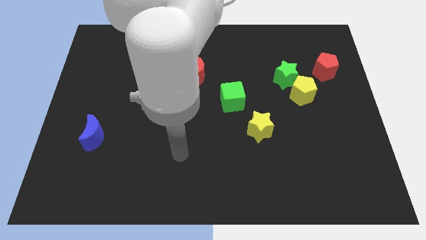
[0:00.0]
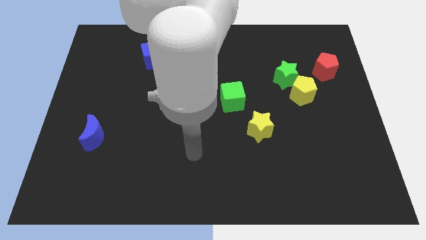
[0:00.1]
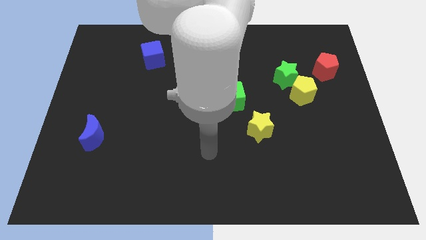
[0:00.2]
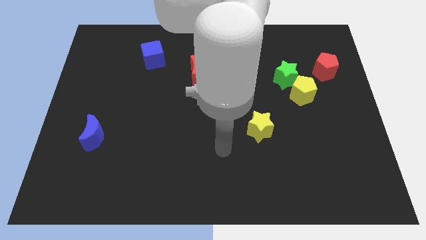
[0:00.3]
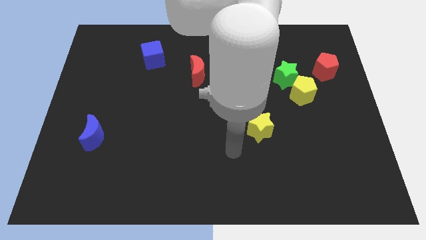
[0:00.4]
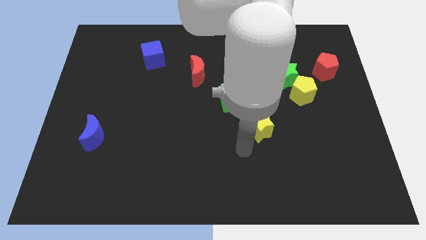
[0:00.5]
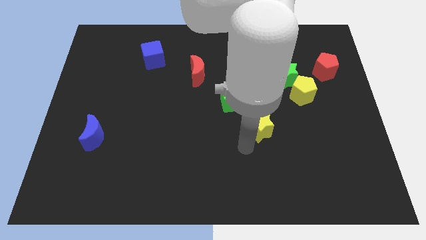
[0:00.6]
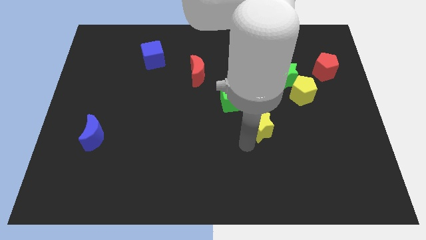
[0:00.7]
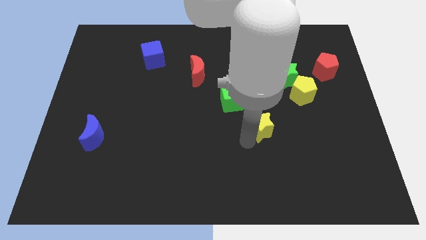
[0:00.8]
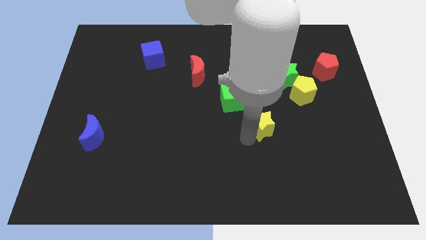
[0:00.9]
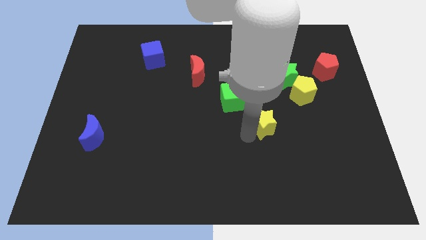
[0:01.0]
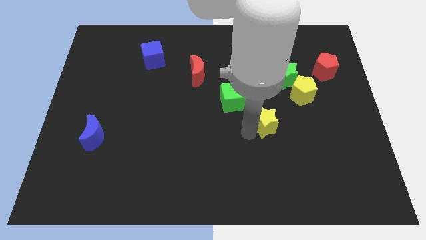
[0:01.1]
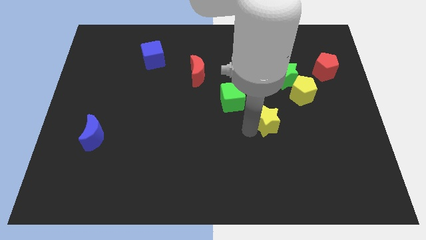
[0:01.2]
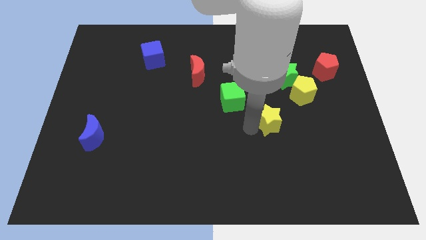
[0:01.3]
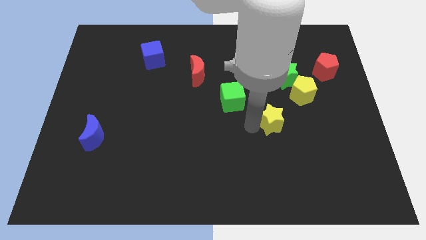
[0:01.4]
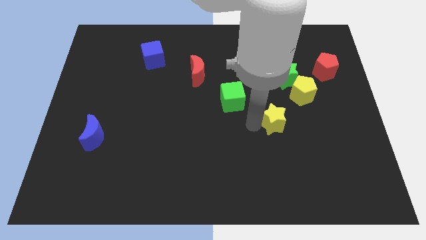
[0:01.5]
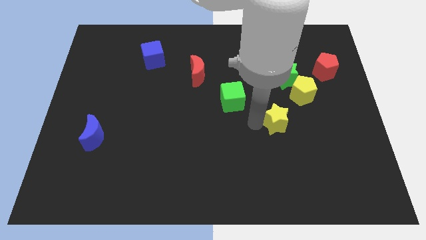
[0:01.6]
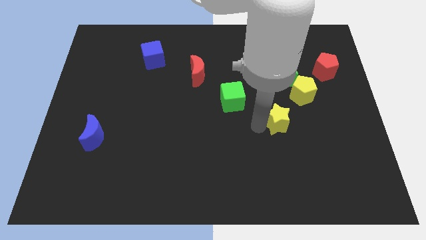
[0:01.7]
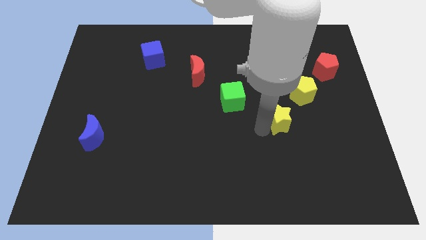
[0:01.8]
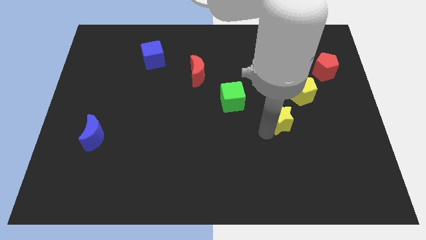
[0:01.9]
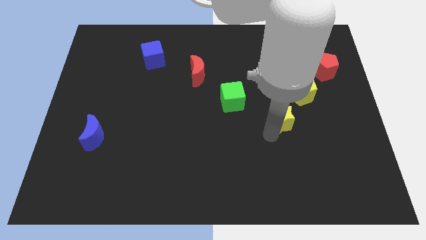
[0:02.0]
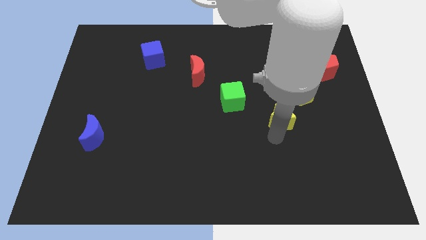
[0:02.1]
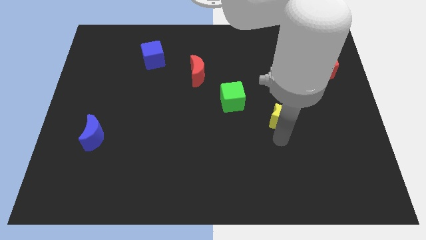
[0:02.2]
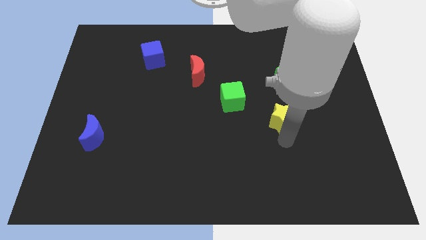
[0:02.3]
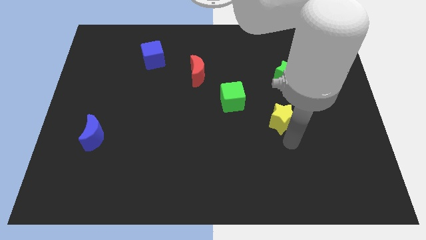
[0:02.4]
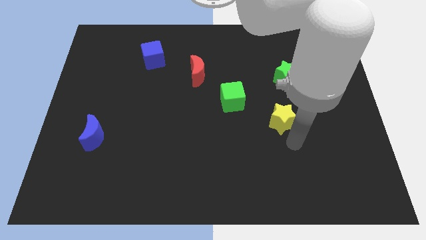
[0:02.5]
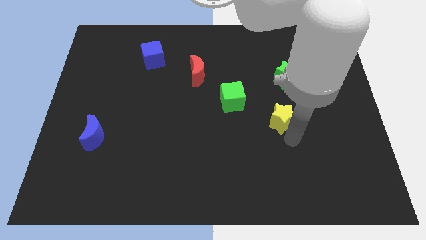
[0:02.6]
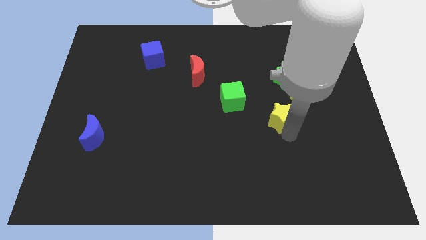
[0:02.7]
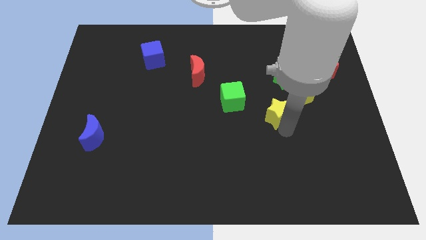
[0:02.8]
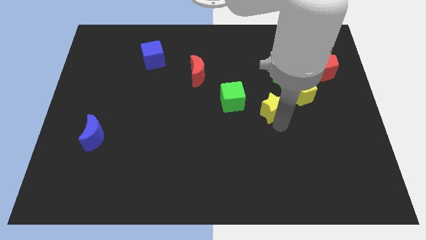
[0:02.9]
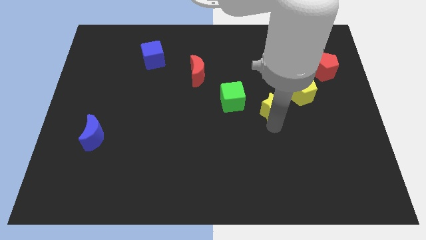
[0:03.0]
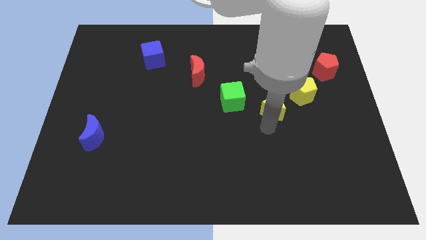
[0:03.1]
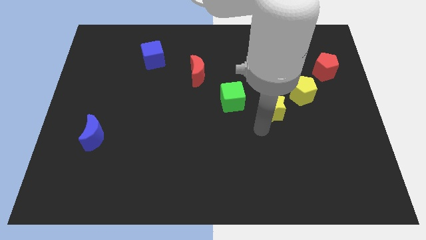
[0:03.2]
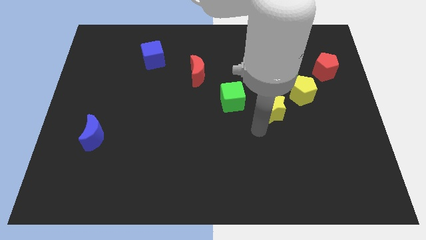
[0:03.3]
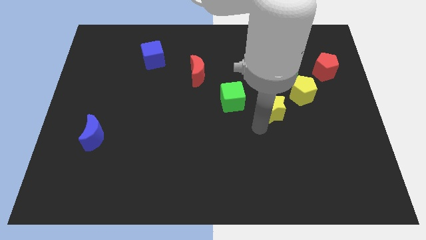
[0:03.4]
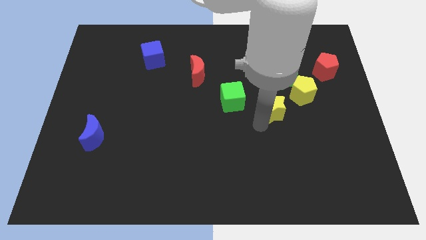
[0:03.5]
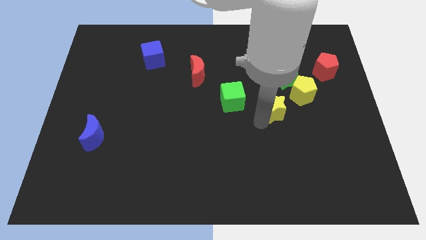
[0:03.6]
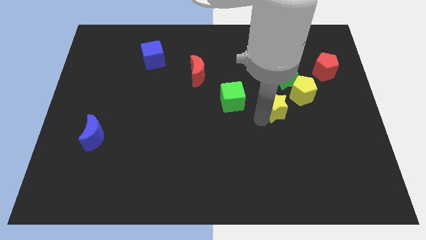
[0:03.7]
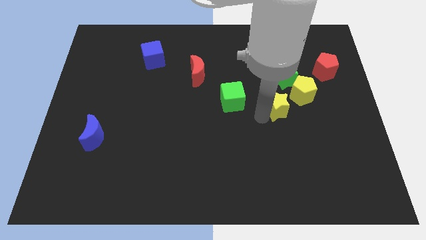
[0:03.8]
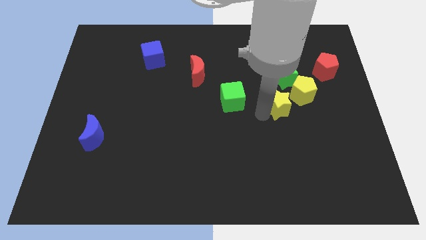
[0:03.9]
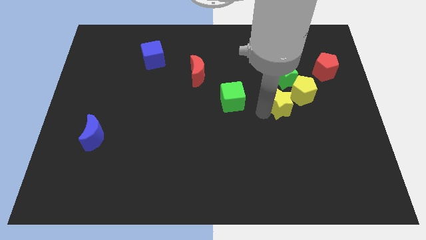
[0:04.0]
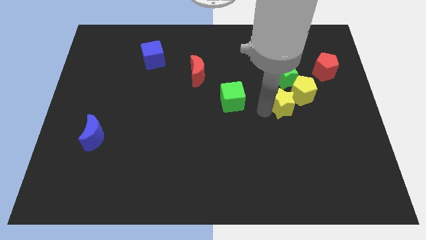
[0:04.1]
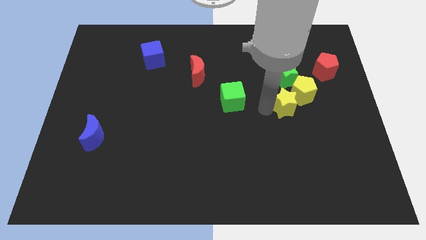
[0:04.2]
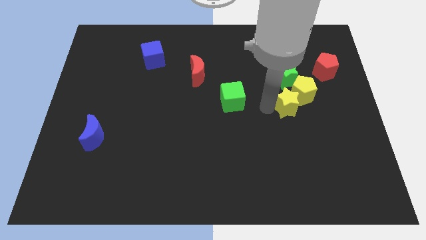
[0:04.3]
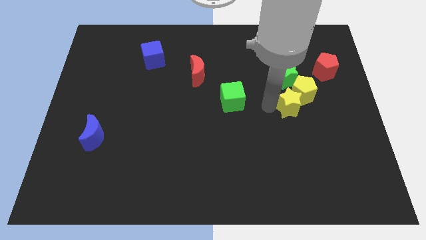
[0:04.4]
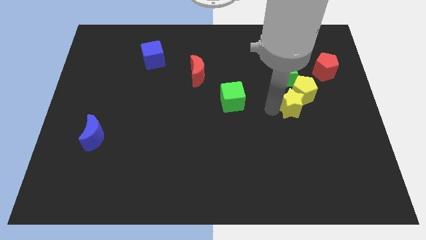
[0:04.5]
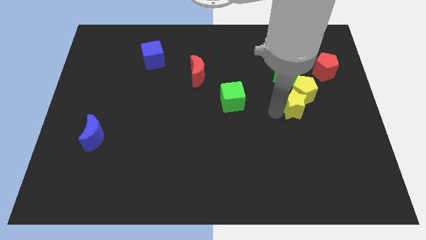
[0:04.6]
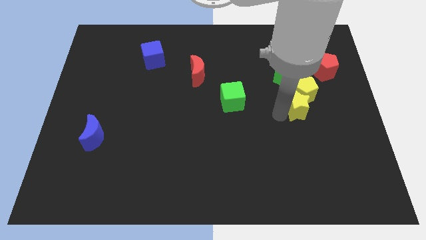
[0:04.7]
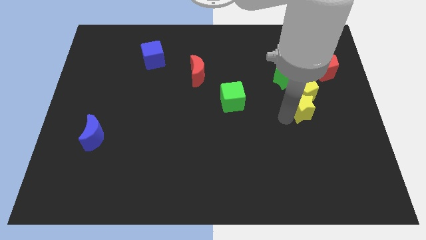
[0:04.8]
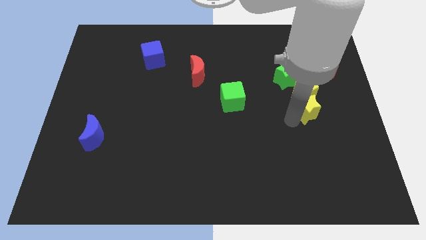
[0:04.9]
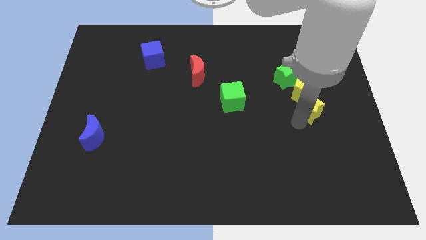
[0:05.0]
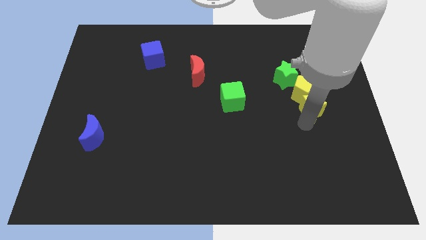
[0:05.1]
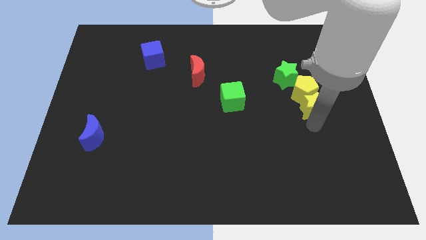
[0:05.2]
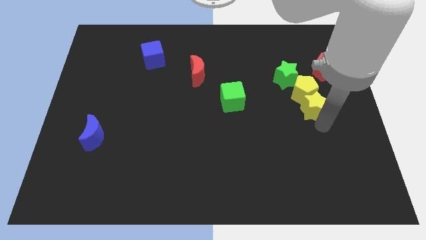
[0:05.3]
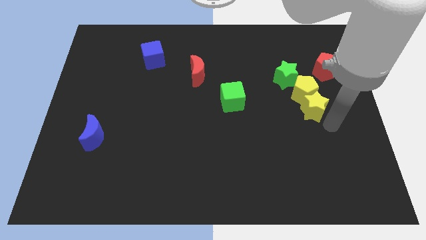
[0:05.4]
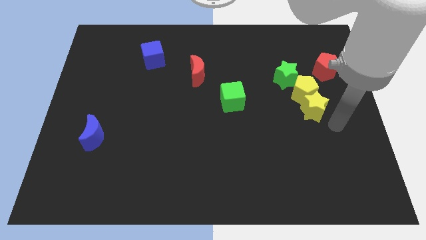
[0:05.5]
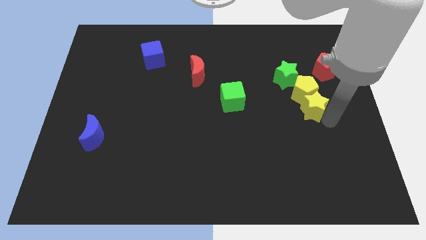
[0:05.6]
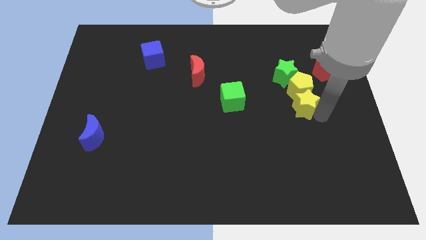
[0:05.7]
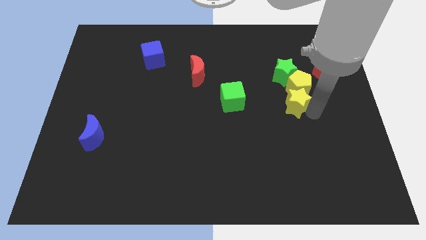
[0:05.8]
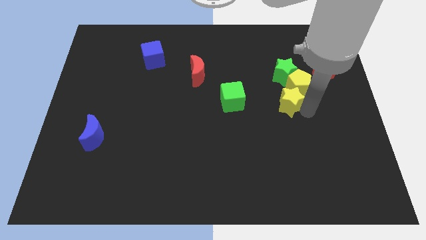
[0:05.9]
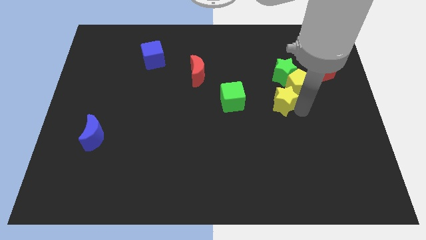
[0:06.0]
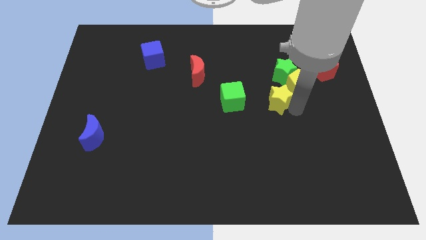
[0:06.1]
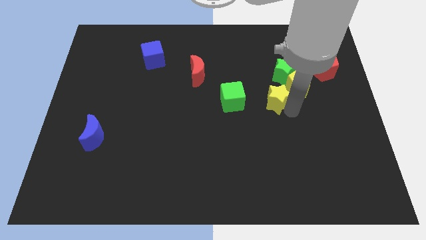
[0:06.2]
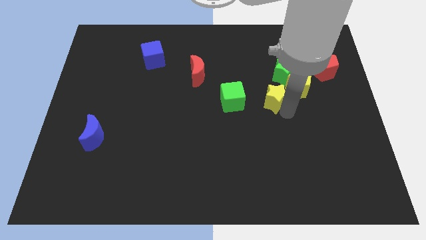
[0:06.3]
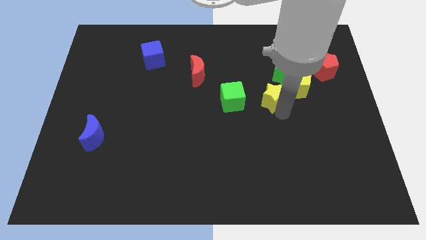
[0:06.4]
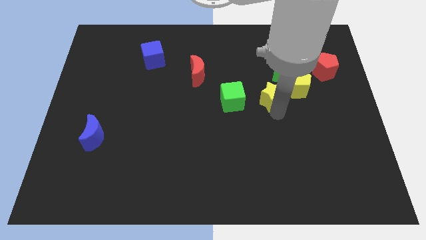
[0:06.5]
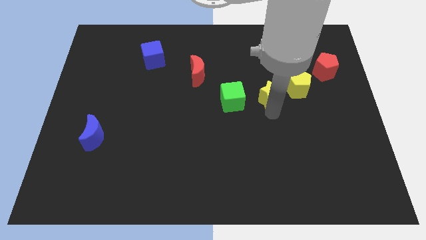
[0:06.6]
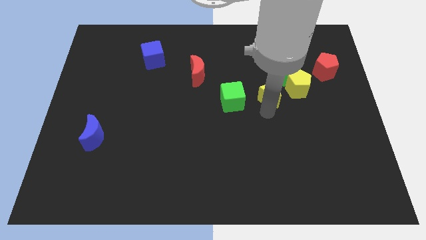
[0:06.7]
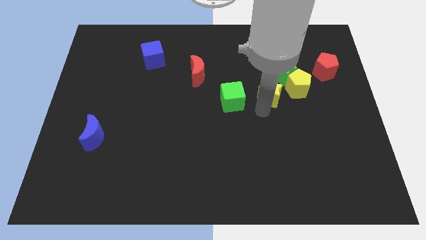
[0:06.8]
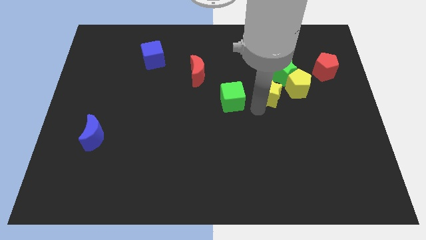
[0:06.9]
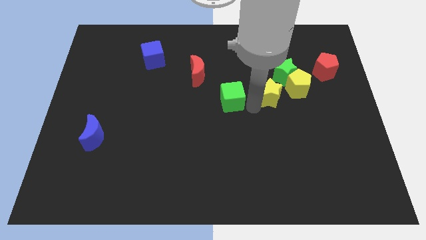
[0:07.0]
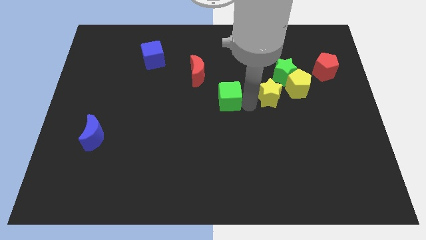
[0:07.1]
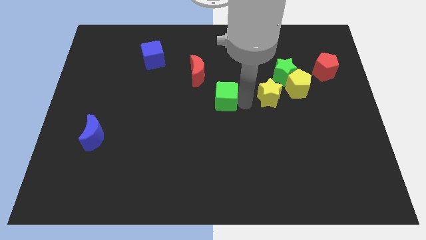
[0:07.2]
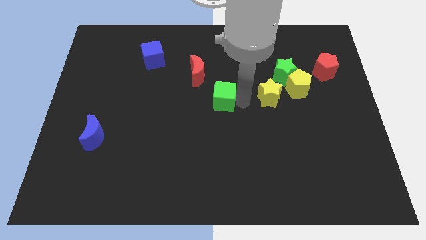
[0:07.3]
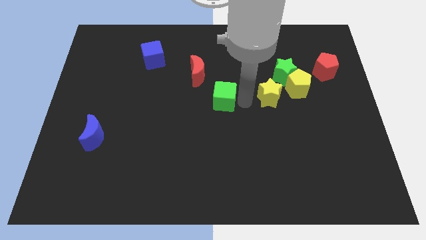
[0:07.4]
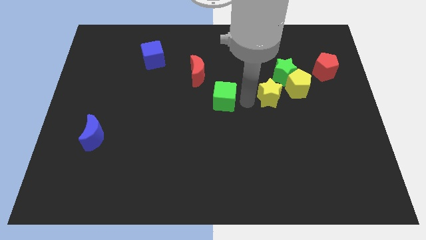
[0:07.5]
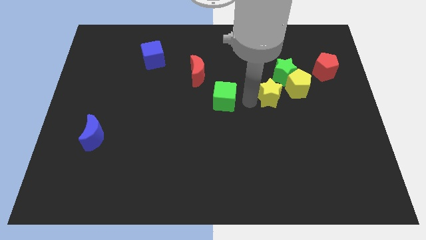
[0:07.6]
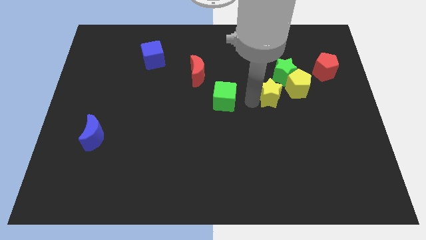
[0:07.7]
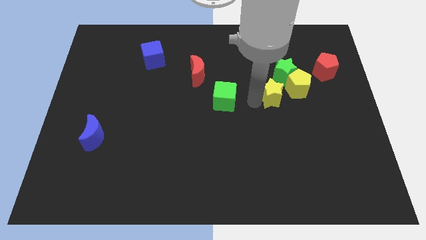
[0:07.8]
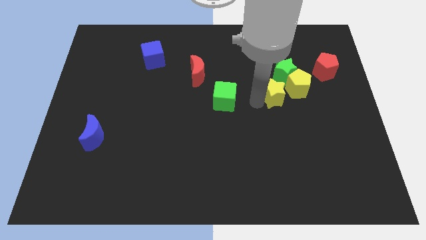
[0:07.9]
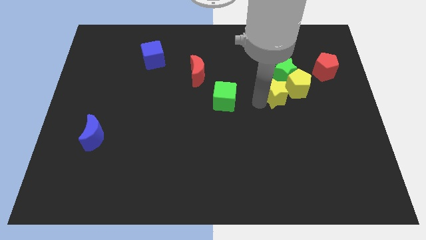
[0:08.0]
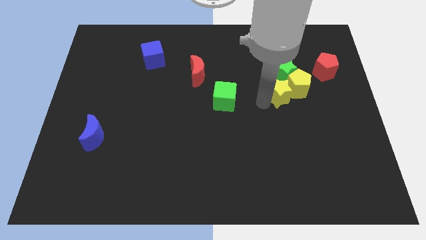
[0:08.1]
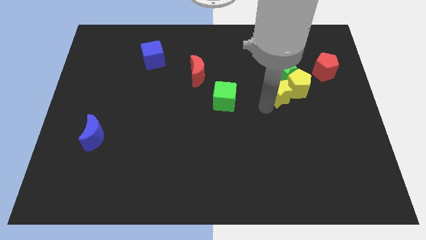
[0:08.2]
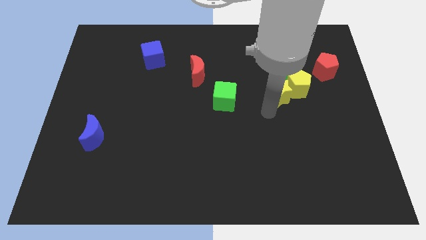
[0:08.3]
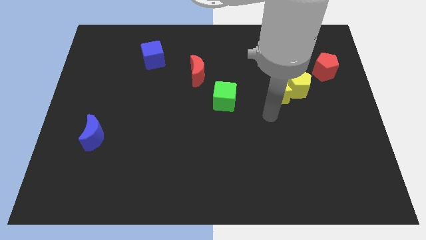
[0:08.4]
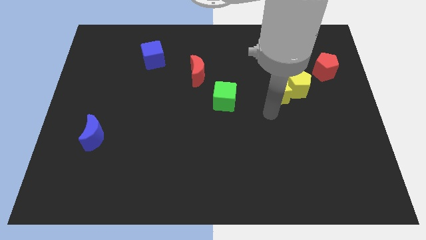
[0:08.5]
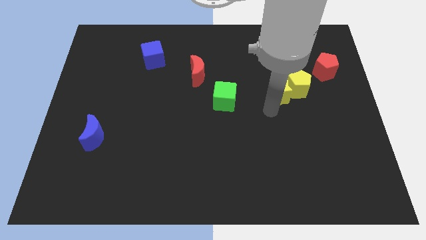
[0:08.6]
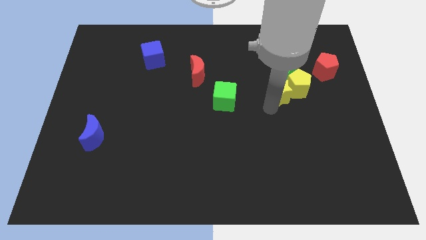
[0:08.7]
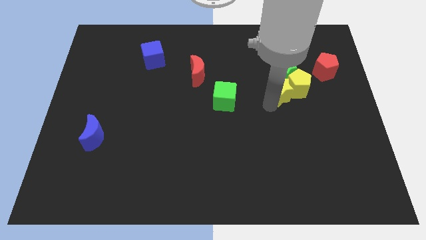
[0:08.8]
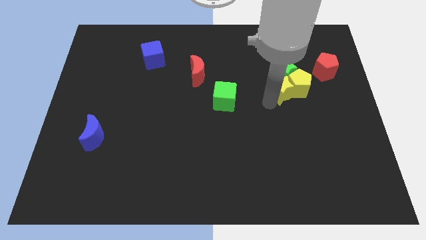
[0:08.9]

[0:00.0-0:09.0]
push the yellow star next to the green star
